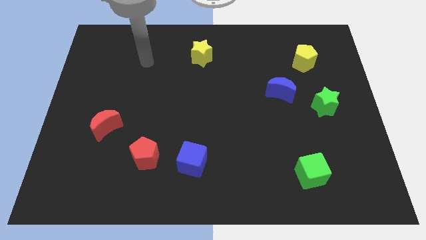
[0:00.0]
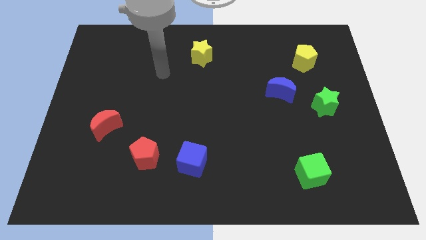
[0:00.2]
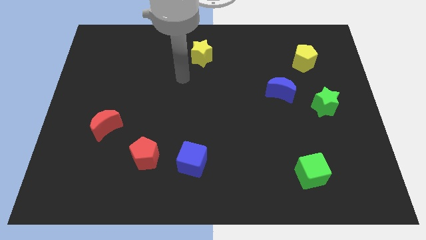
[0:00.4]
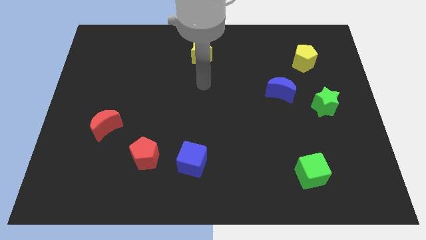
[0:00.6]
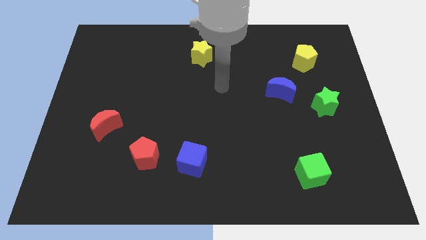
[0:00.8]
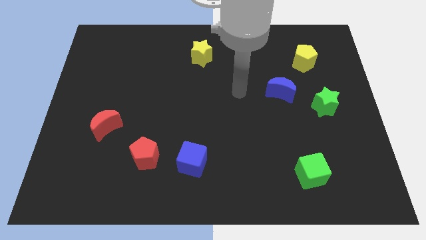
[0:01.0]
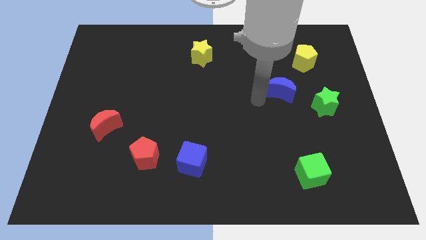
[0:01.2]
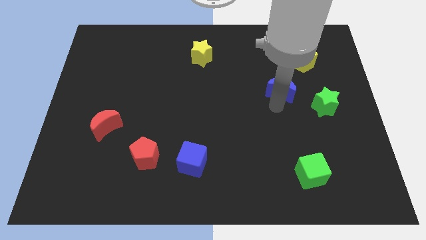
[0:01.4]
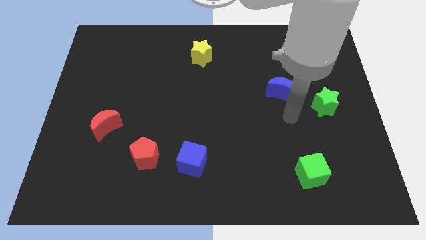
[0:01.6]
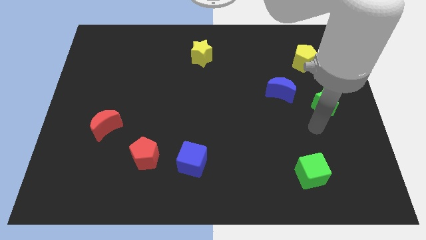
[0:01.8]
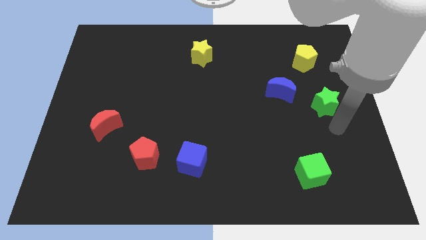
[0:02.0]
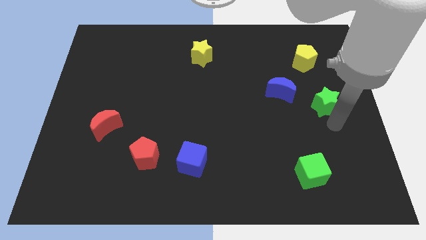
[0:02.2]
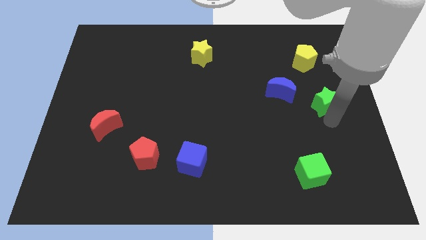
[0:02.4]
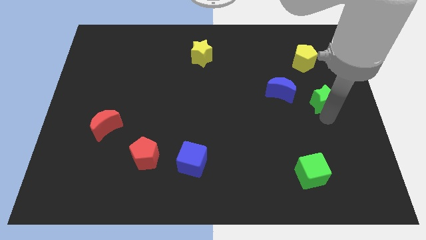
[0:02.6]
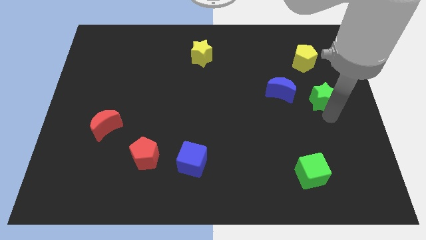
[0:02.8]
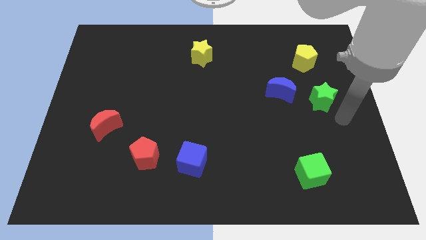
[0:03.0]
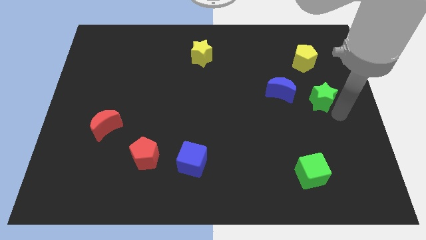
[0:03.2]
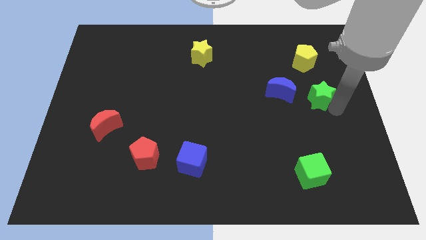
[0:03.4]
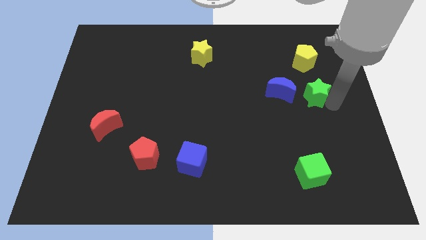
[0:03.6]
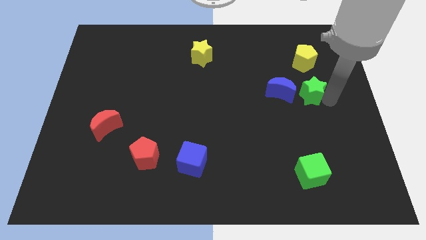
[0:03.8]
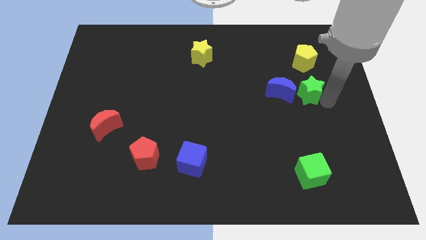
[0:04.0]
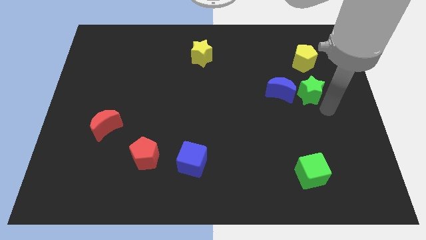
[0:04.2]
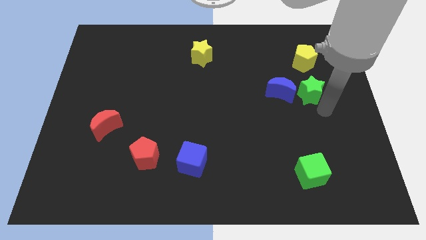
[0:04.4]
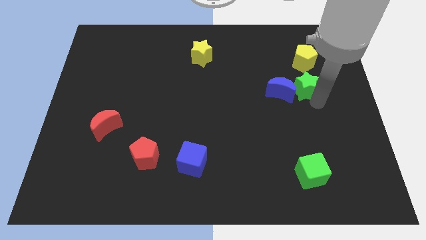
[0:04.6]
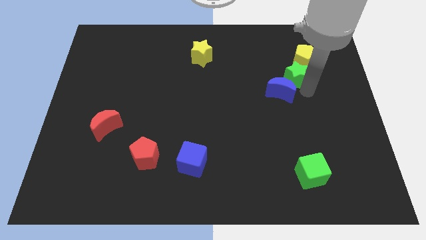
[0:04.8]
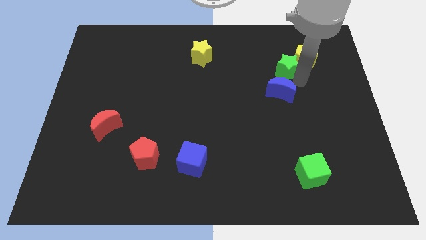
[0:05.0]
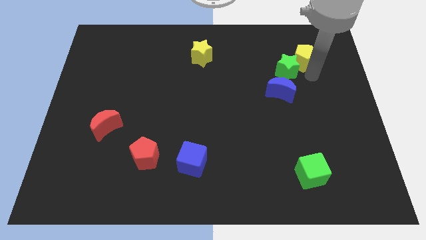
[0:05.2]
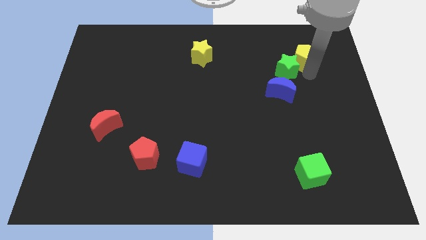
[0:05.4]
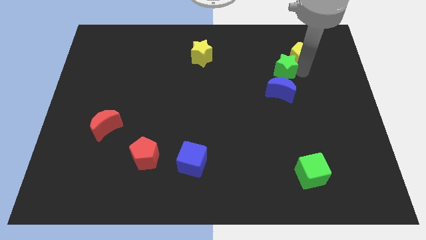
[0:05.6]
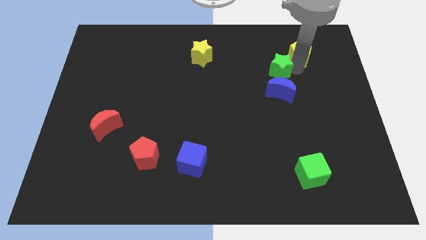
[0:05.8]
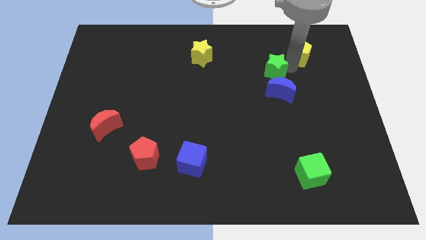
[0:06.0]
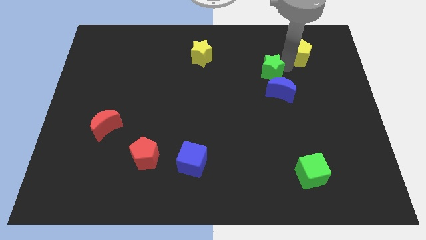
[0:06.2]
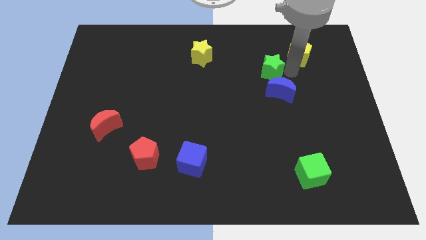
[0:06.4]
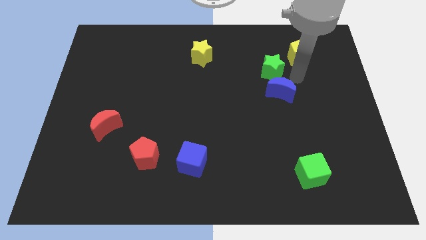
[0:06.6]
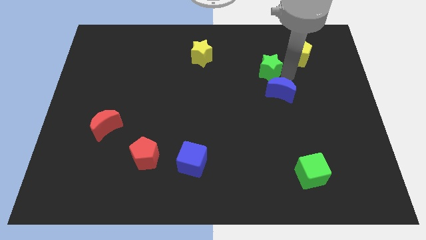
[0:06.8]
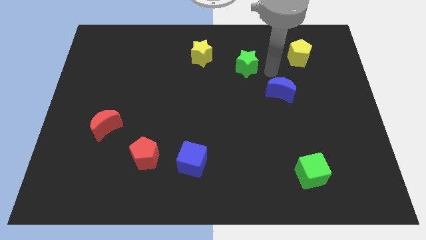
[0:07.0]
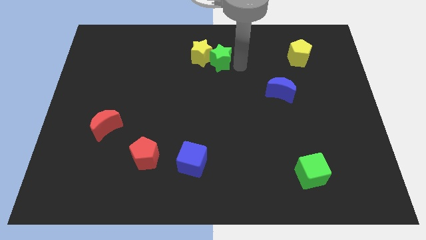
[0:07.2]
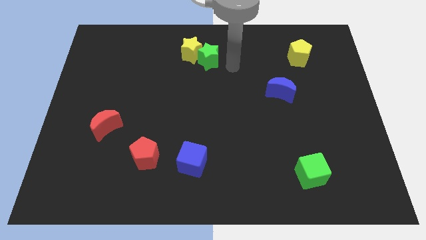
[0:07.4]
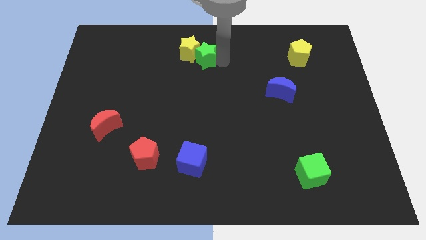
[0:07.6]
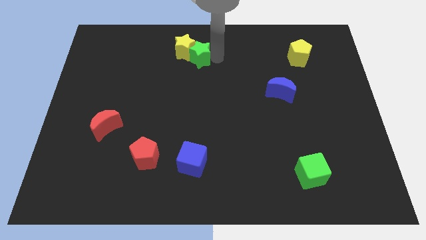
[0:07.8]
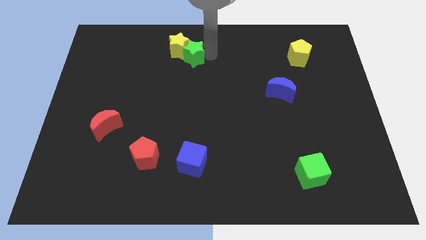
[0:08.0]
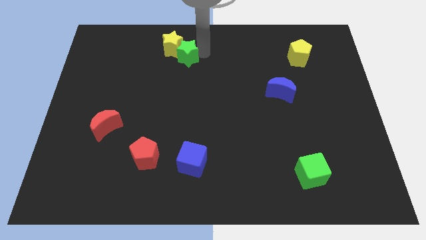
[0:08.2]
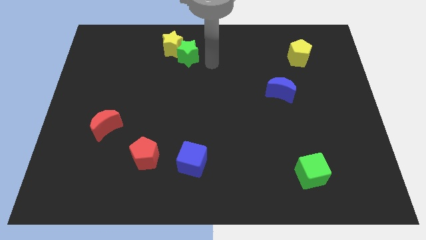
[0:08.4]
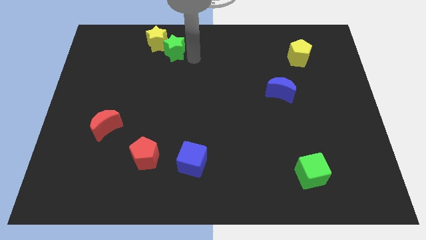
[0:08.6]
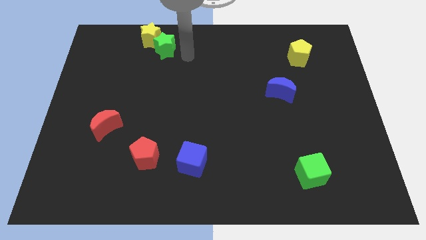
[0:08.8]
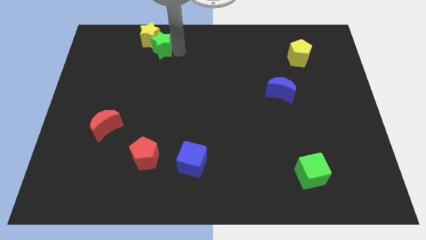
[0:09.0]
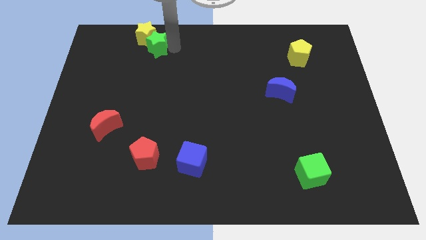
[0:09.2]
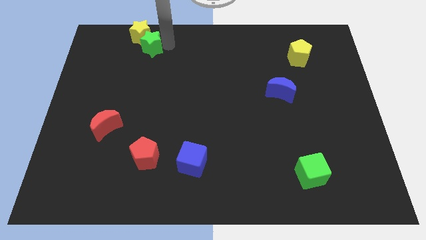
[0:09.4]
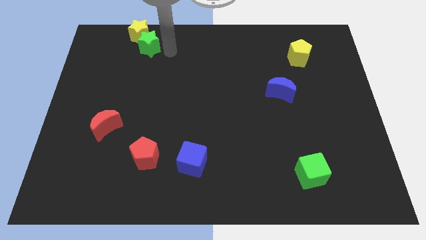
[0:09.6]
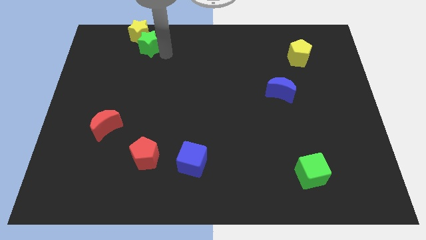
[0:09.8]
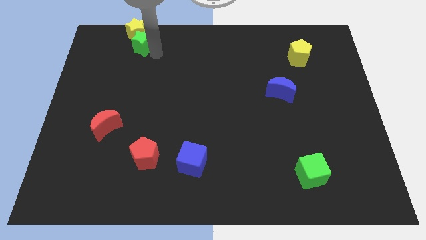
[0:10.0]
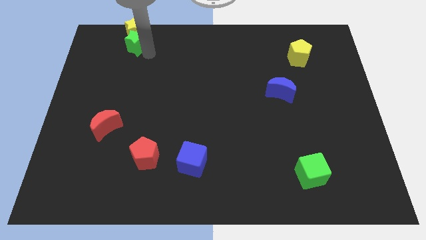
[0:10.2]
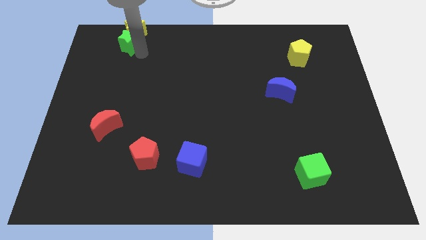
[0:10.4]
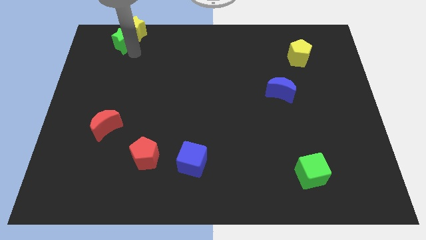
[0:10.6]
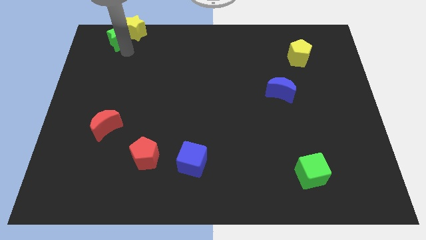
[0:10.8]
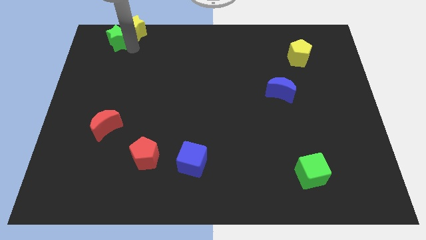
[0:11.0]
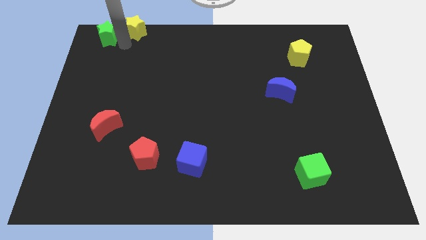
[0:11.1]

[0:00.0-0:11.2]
put the green star to the top left corner

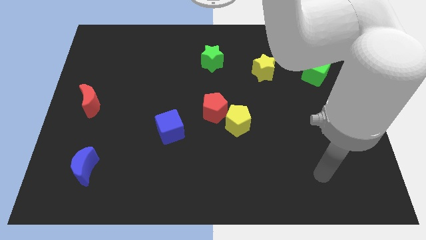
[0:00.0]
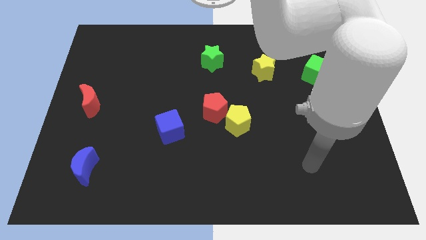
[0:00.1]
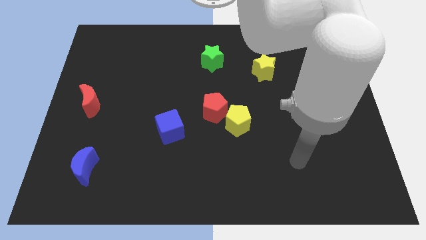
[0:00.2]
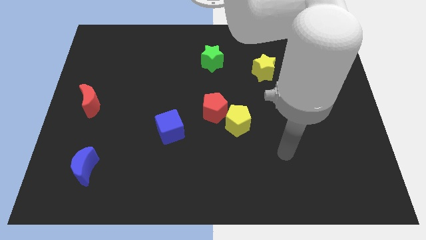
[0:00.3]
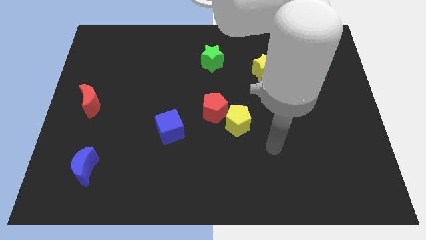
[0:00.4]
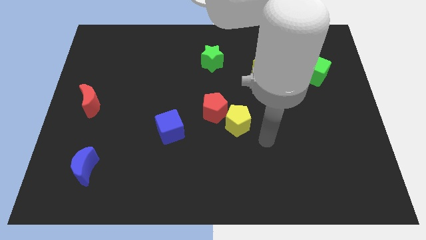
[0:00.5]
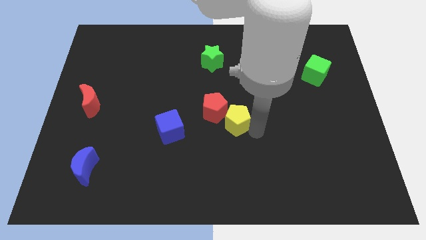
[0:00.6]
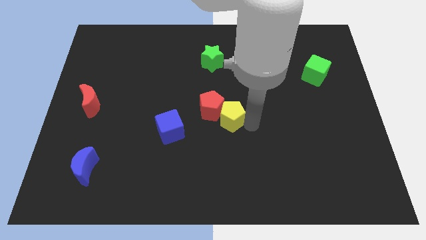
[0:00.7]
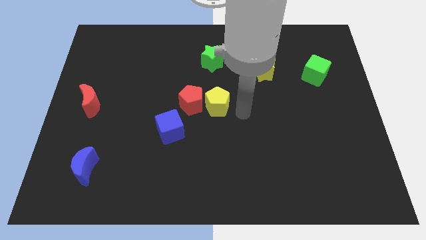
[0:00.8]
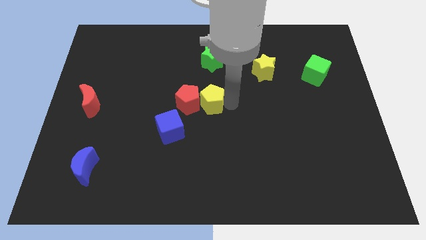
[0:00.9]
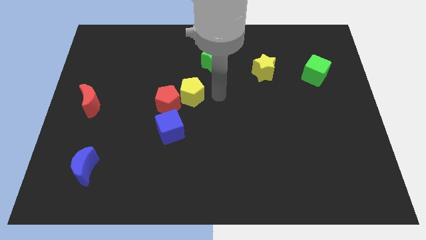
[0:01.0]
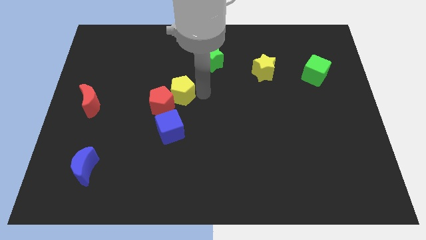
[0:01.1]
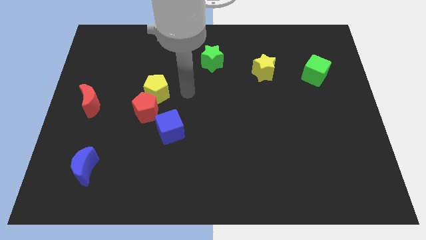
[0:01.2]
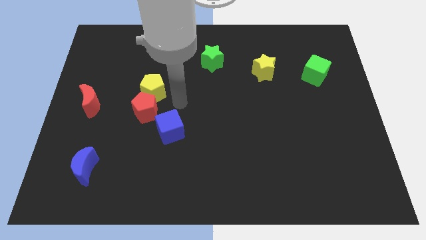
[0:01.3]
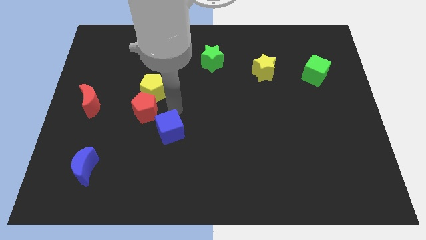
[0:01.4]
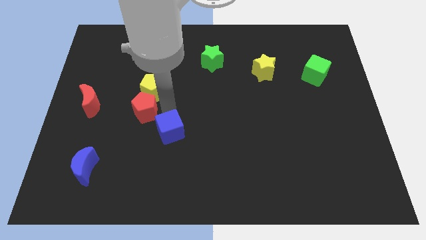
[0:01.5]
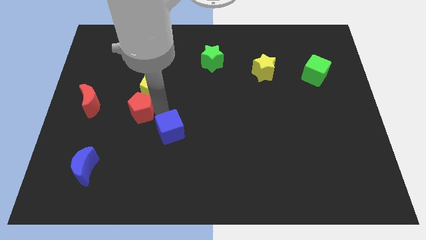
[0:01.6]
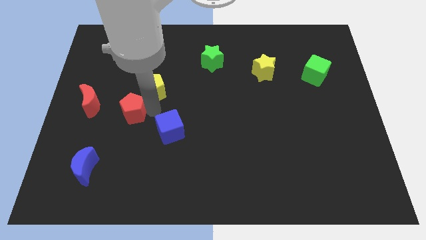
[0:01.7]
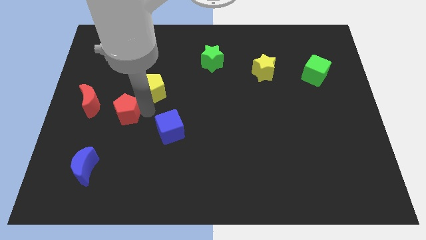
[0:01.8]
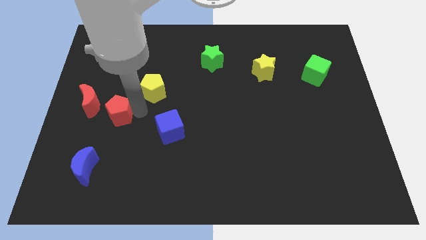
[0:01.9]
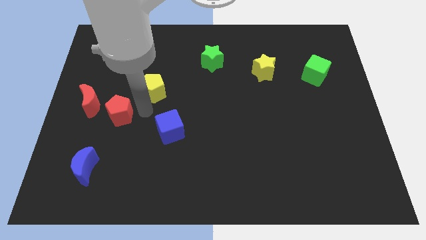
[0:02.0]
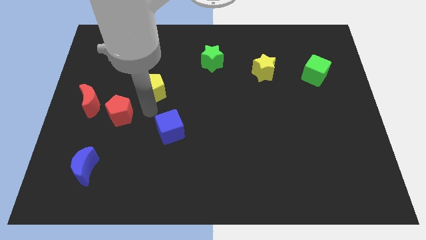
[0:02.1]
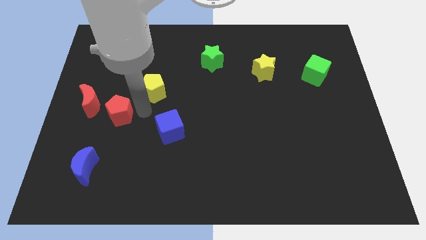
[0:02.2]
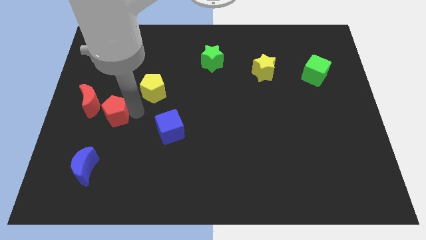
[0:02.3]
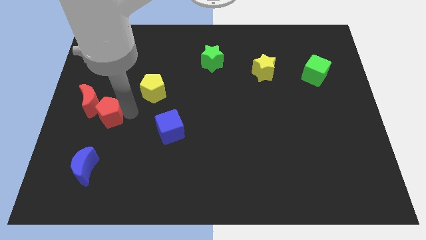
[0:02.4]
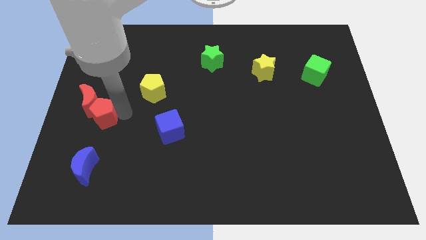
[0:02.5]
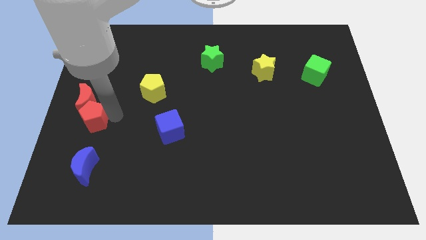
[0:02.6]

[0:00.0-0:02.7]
put the red pentagon to the center left
